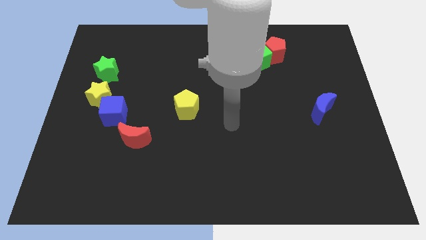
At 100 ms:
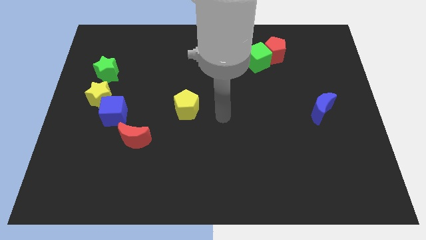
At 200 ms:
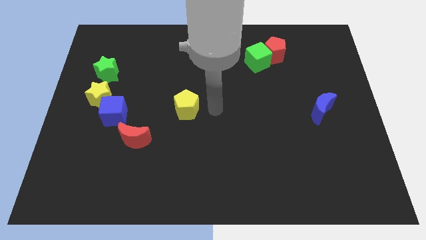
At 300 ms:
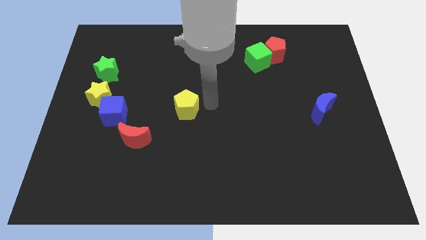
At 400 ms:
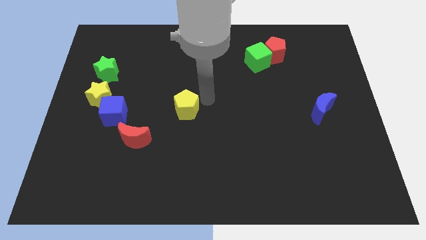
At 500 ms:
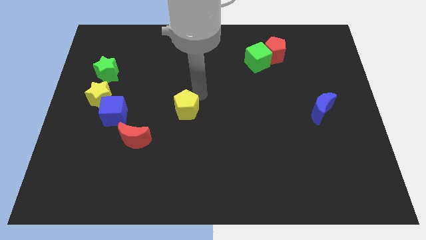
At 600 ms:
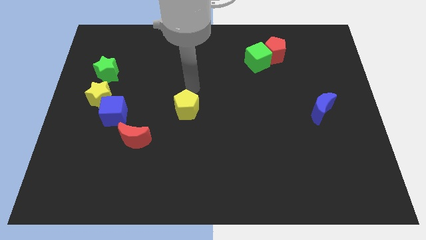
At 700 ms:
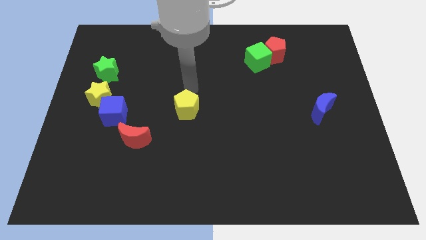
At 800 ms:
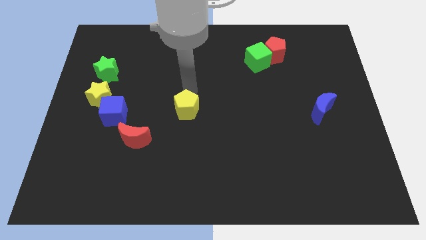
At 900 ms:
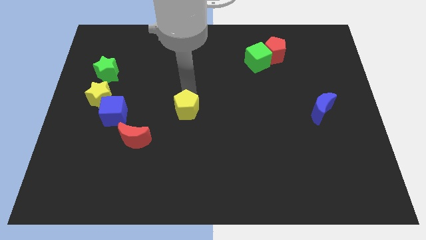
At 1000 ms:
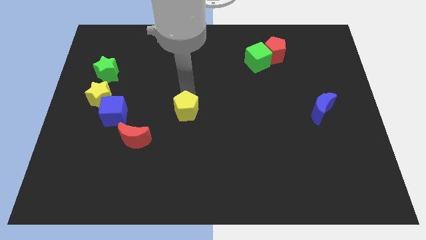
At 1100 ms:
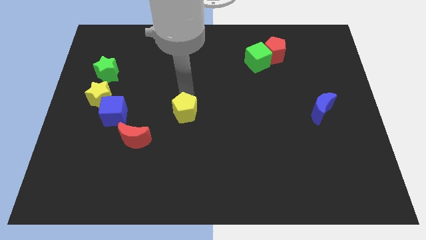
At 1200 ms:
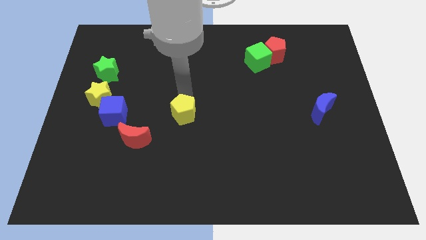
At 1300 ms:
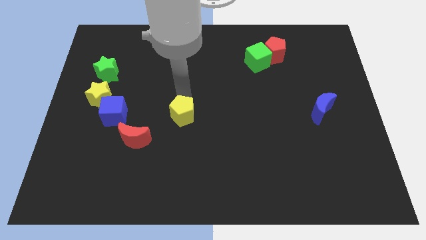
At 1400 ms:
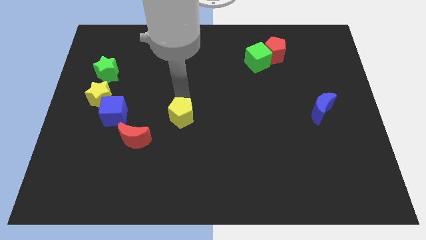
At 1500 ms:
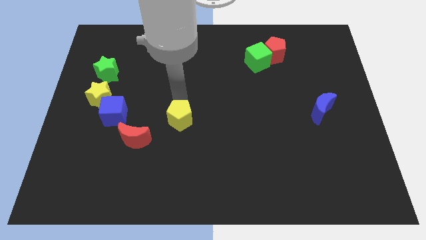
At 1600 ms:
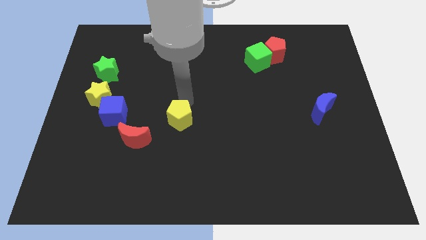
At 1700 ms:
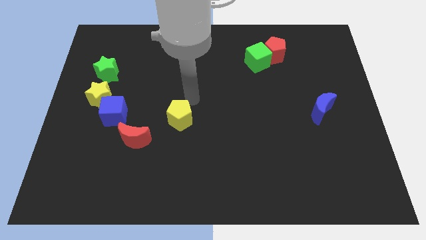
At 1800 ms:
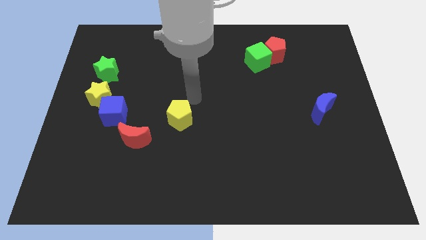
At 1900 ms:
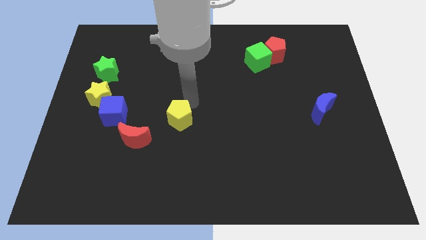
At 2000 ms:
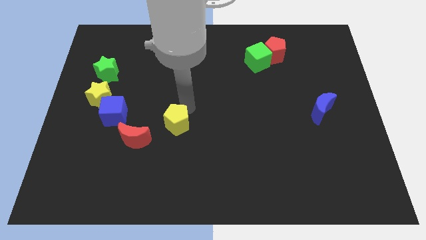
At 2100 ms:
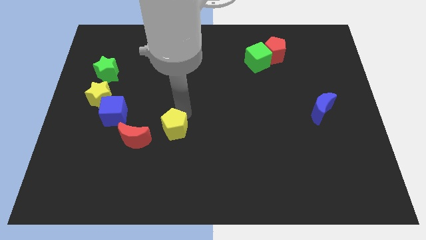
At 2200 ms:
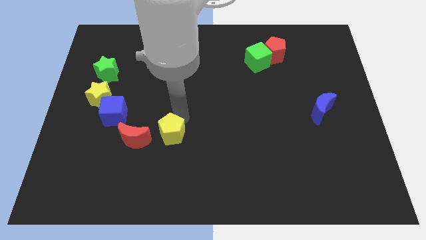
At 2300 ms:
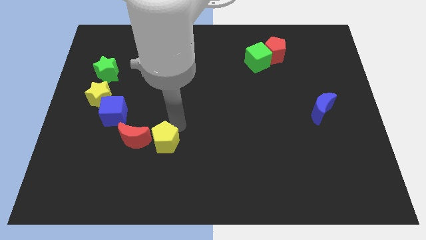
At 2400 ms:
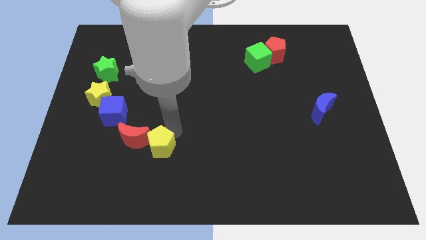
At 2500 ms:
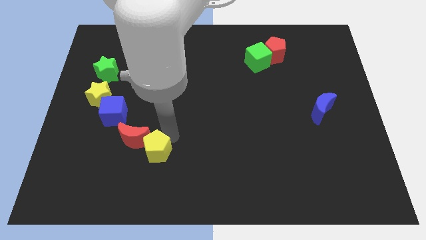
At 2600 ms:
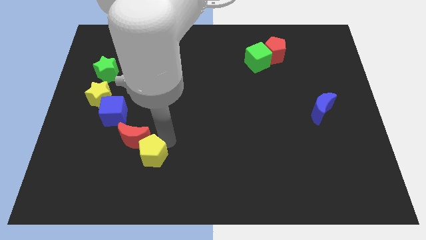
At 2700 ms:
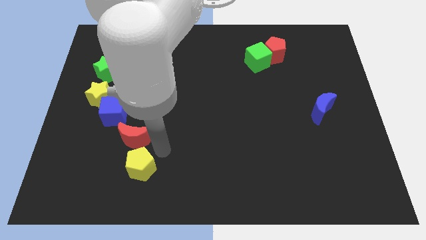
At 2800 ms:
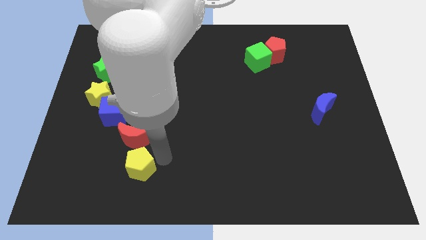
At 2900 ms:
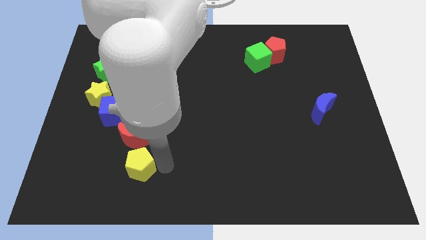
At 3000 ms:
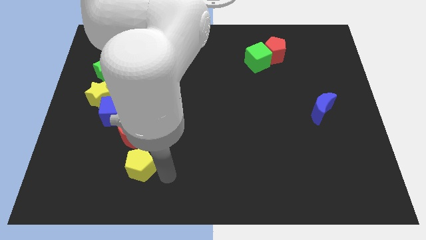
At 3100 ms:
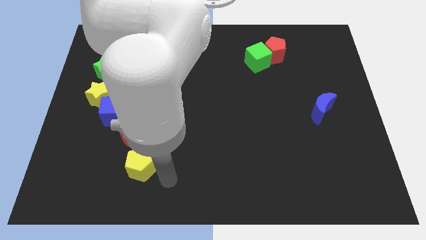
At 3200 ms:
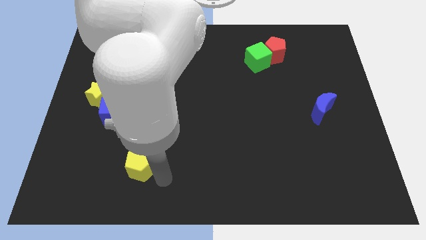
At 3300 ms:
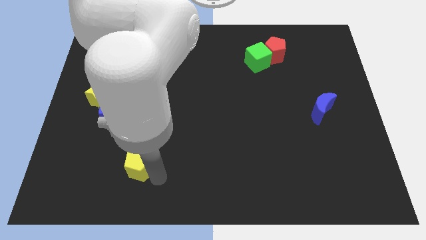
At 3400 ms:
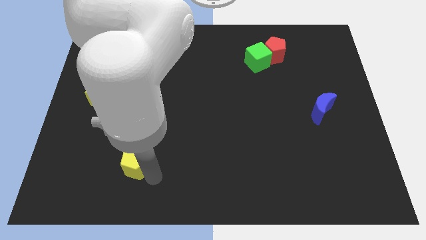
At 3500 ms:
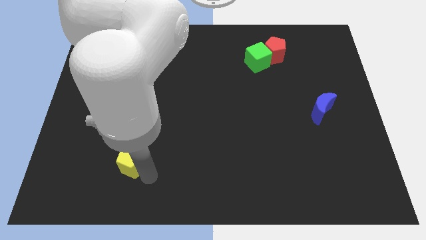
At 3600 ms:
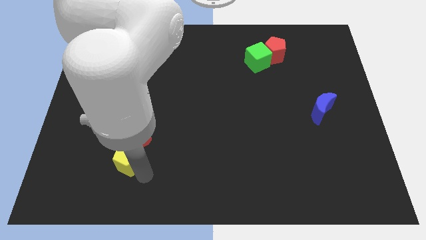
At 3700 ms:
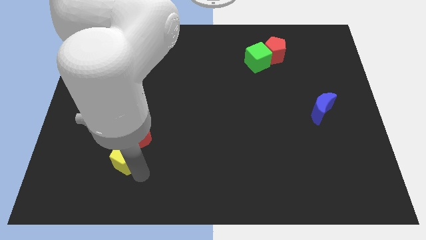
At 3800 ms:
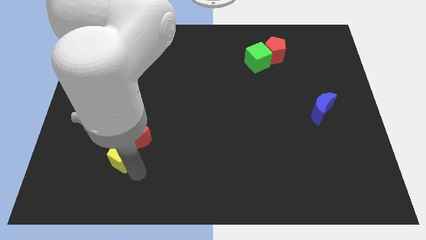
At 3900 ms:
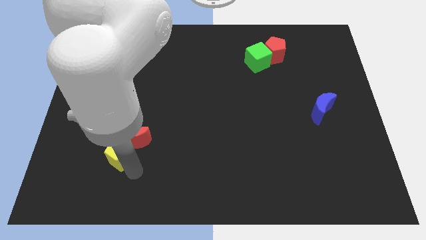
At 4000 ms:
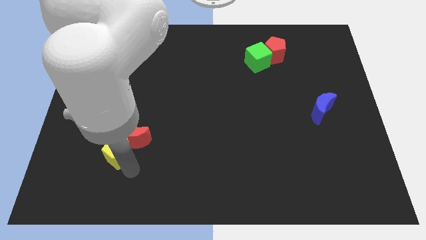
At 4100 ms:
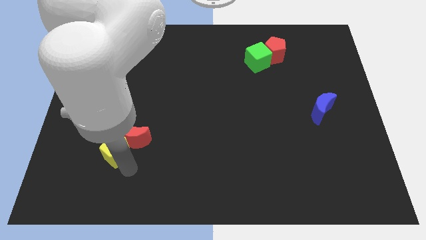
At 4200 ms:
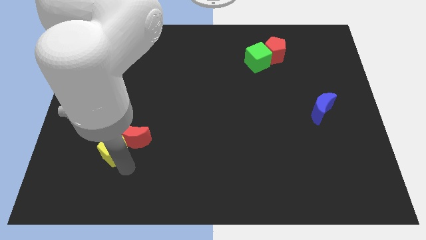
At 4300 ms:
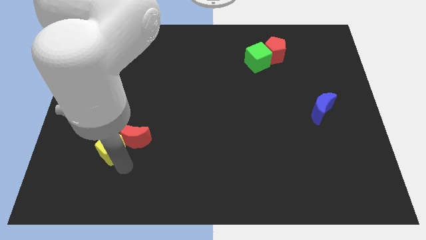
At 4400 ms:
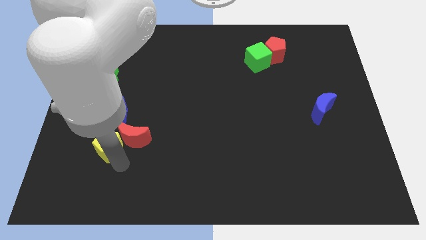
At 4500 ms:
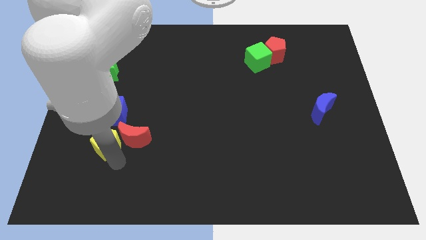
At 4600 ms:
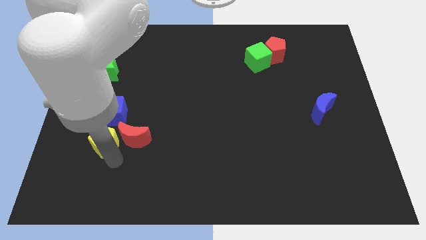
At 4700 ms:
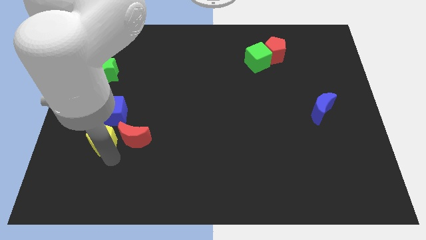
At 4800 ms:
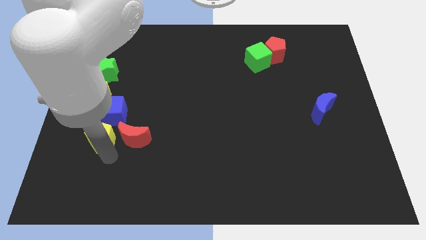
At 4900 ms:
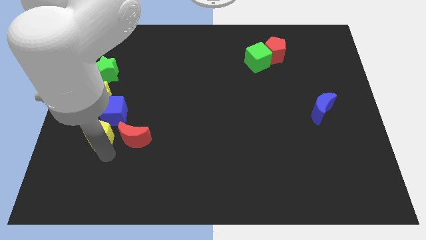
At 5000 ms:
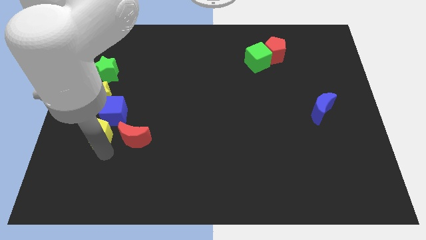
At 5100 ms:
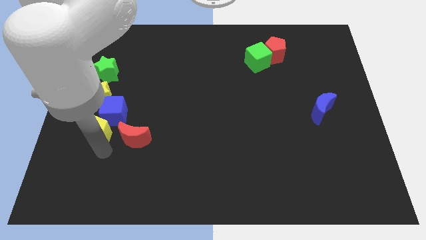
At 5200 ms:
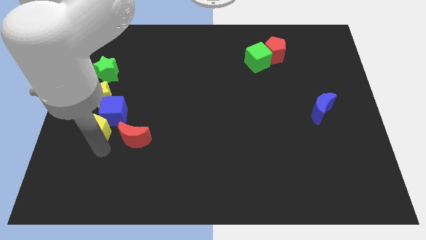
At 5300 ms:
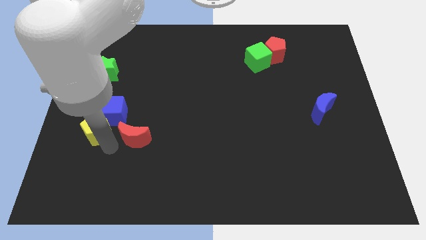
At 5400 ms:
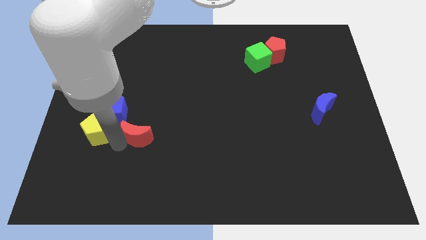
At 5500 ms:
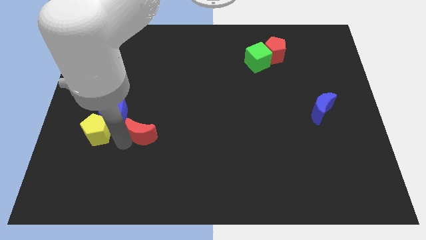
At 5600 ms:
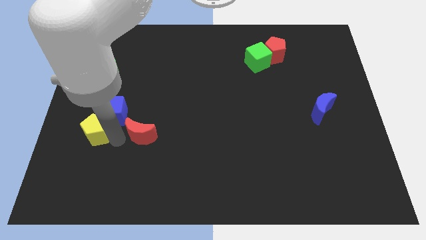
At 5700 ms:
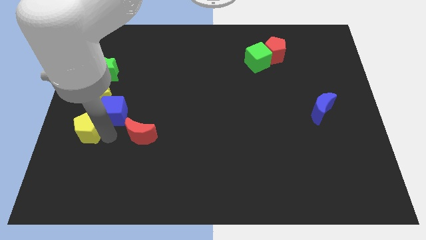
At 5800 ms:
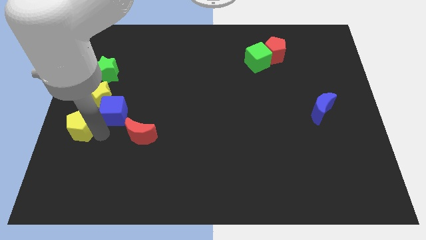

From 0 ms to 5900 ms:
push the yellow pentagon to the center left

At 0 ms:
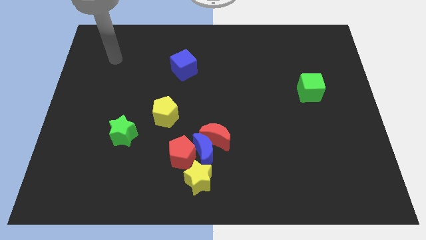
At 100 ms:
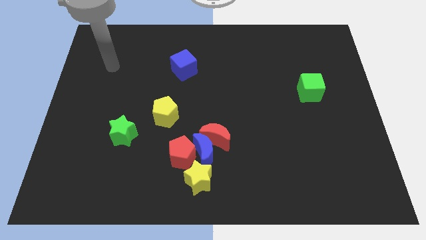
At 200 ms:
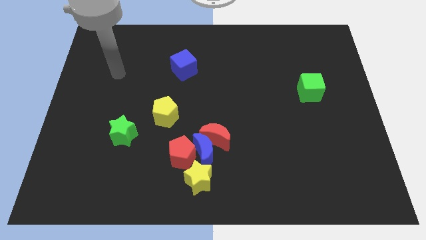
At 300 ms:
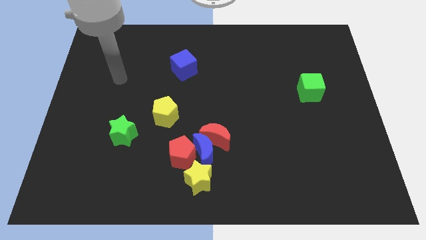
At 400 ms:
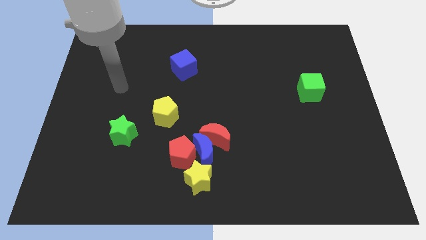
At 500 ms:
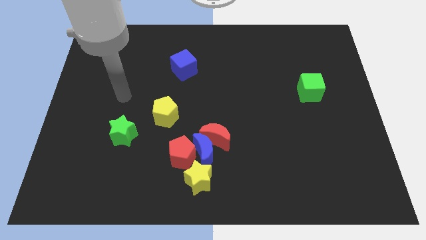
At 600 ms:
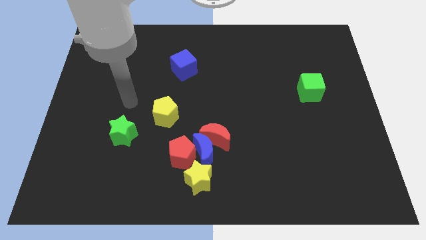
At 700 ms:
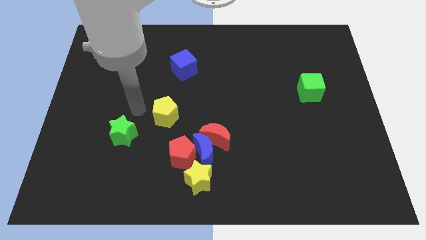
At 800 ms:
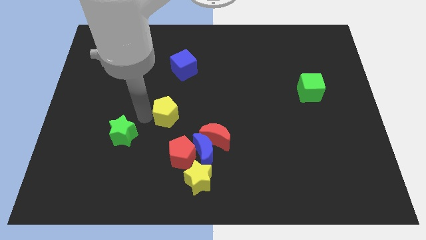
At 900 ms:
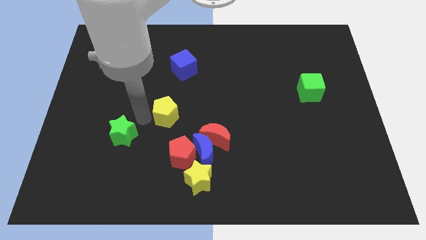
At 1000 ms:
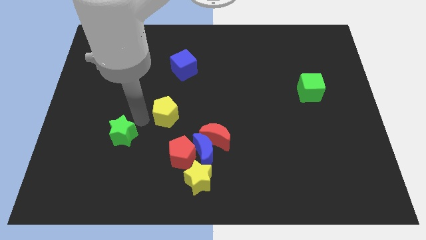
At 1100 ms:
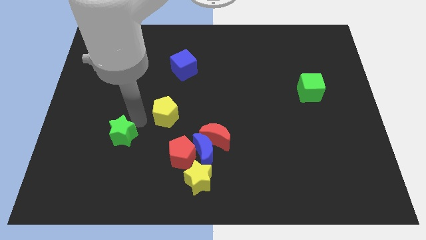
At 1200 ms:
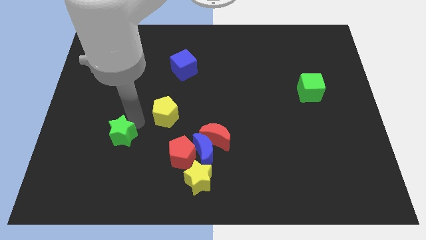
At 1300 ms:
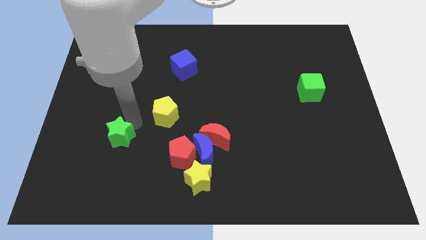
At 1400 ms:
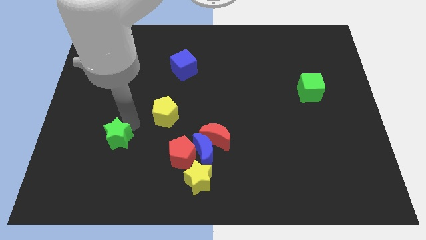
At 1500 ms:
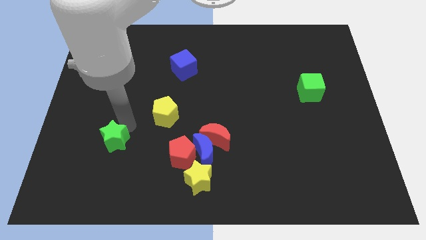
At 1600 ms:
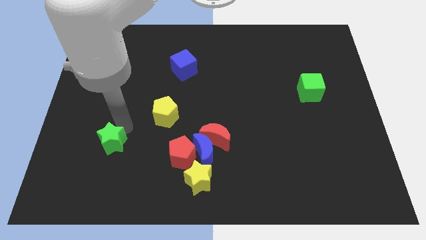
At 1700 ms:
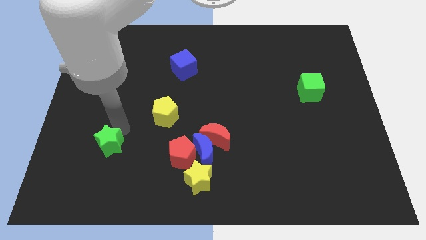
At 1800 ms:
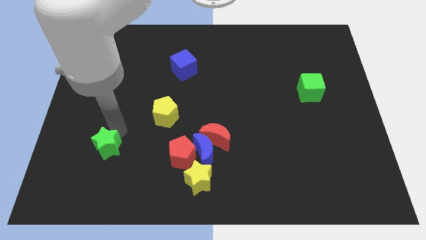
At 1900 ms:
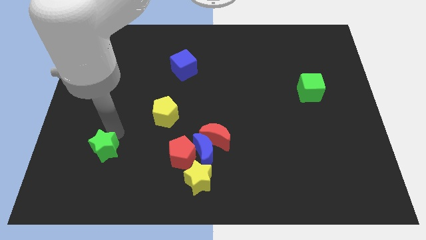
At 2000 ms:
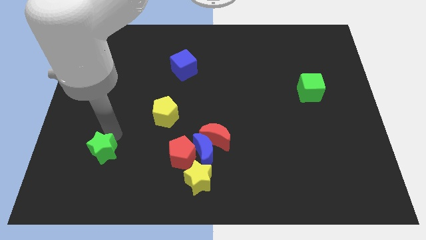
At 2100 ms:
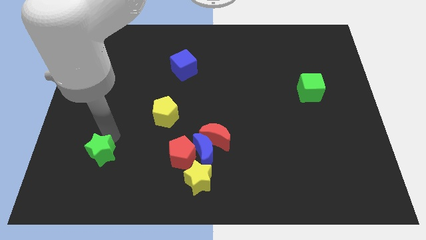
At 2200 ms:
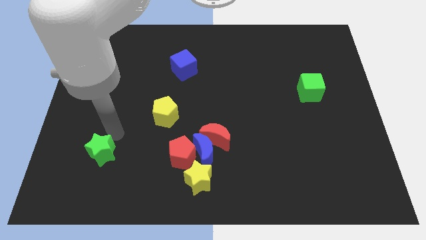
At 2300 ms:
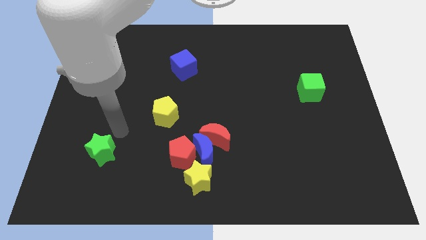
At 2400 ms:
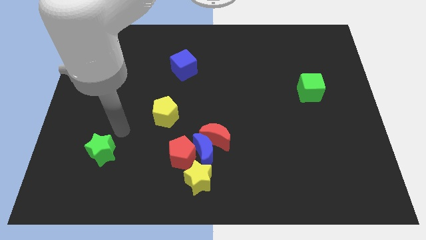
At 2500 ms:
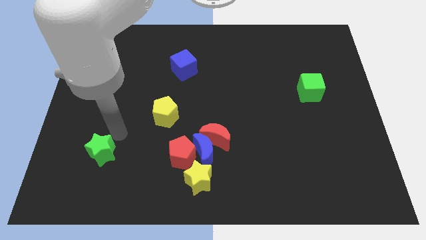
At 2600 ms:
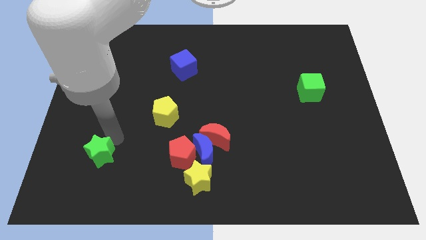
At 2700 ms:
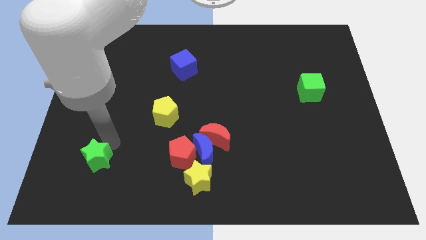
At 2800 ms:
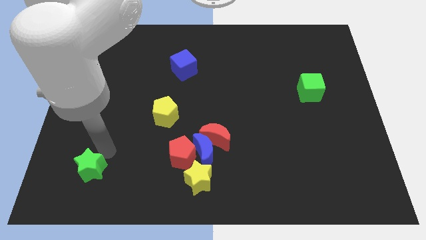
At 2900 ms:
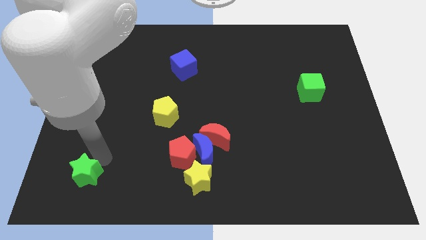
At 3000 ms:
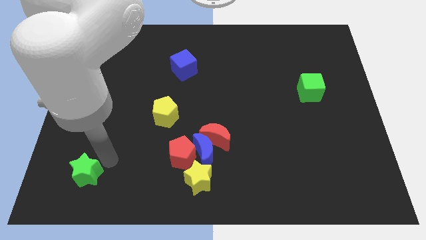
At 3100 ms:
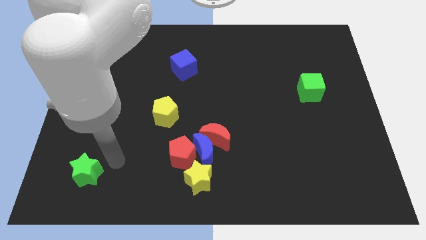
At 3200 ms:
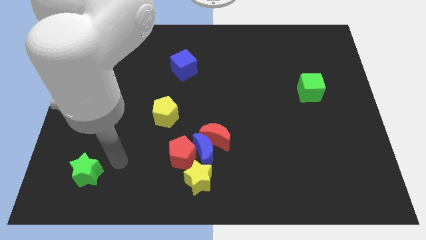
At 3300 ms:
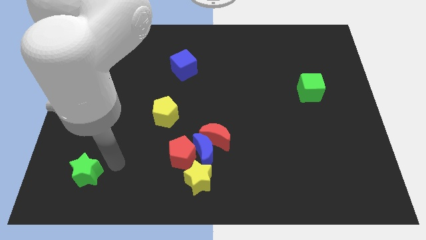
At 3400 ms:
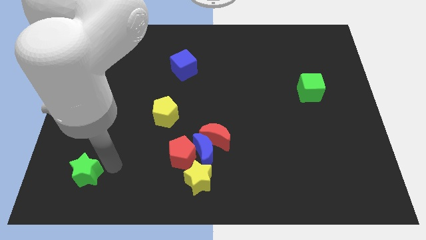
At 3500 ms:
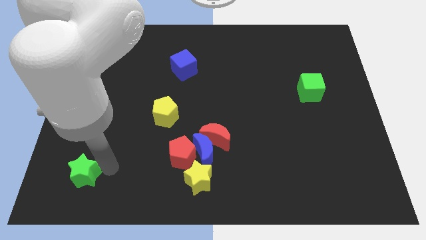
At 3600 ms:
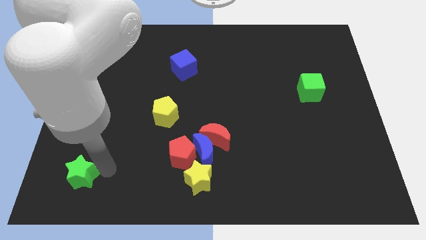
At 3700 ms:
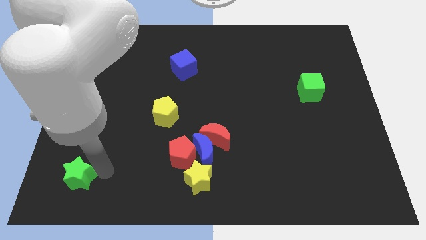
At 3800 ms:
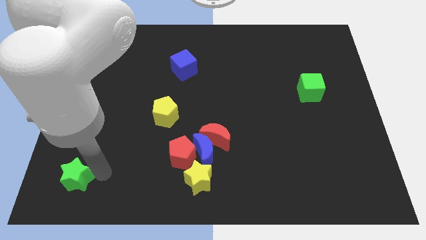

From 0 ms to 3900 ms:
move the green star to the bottom left corner
